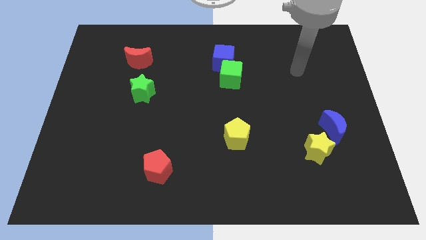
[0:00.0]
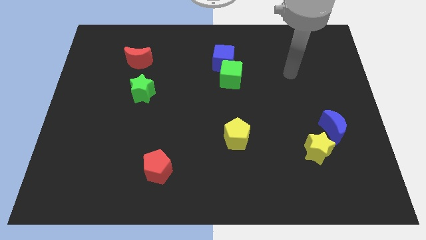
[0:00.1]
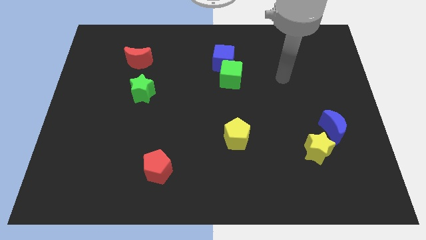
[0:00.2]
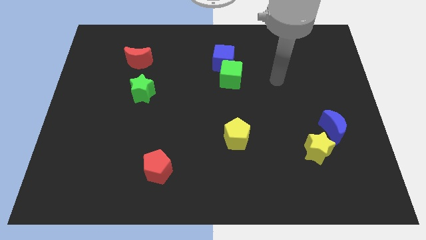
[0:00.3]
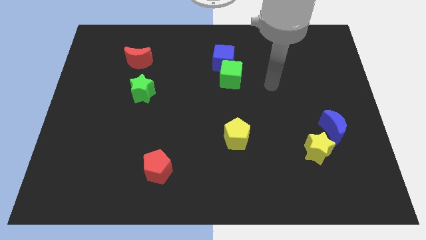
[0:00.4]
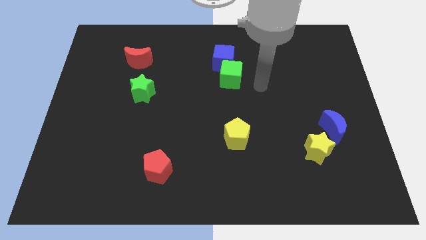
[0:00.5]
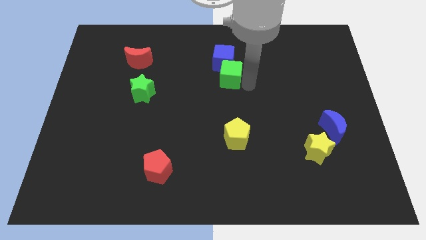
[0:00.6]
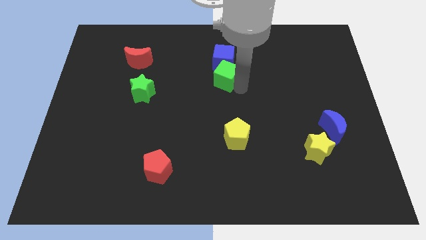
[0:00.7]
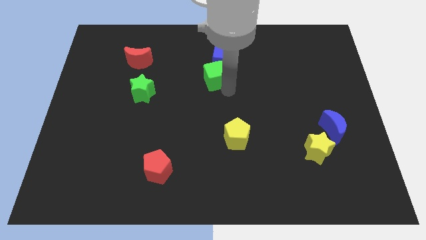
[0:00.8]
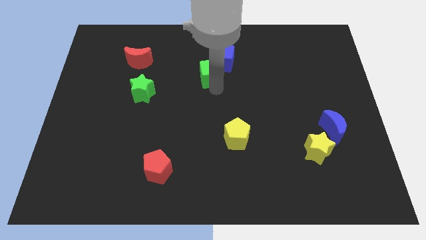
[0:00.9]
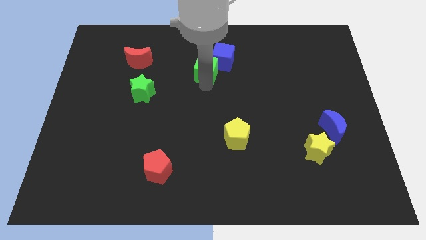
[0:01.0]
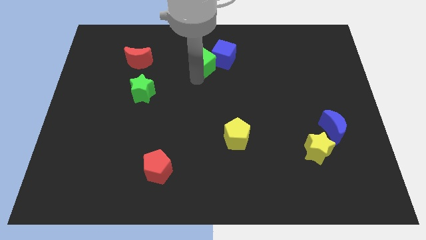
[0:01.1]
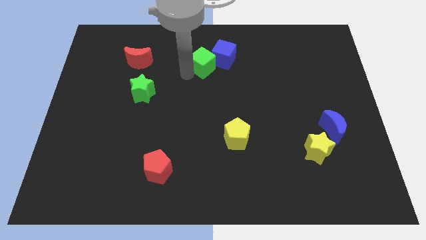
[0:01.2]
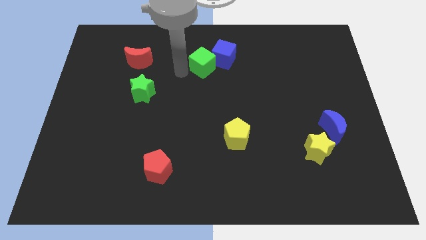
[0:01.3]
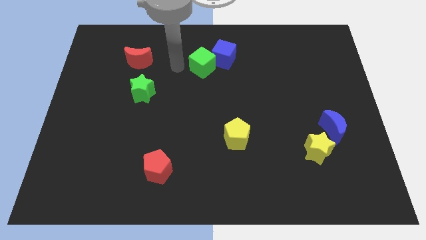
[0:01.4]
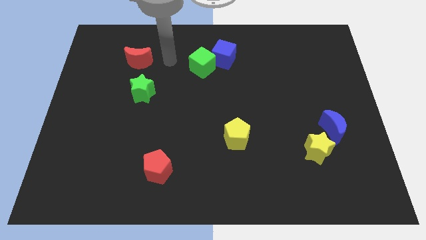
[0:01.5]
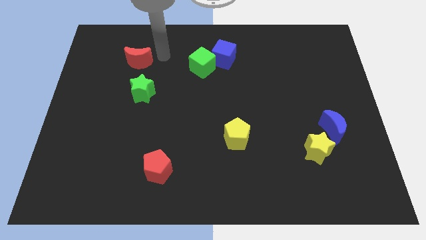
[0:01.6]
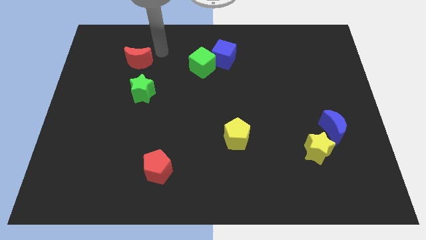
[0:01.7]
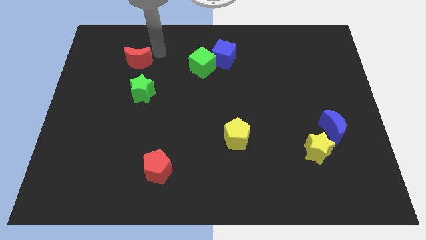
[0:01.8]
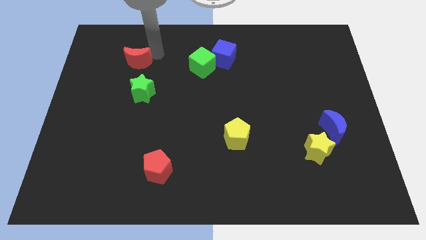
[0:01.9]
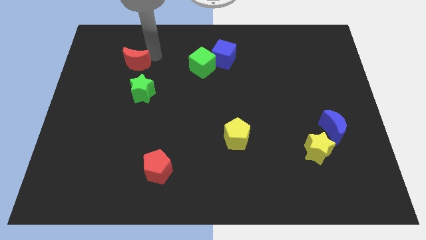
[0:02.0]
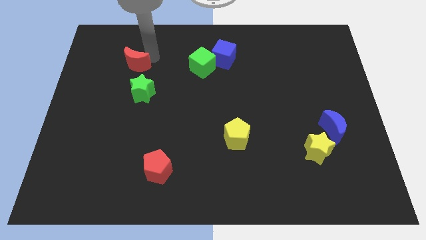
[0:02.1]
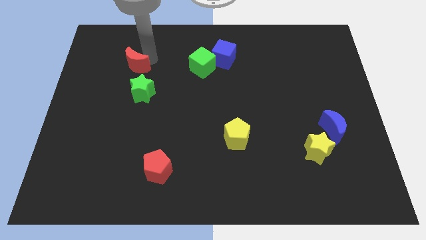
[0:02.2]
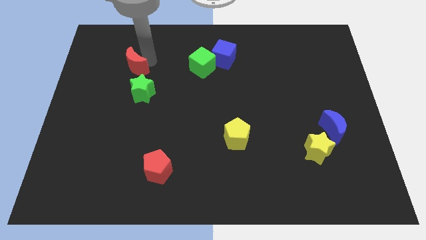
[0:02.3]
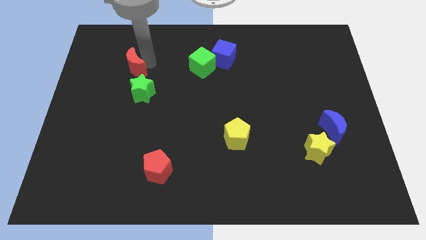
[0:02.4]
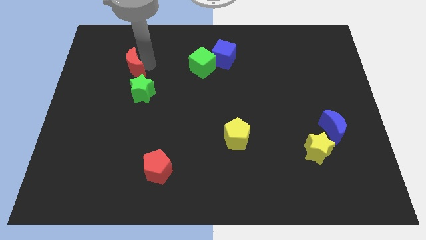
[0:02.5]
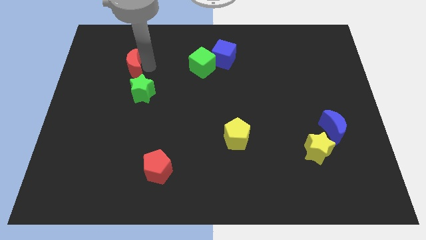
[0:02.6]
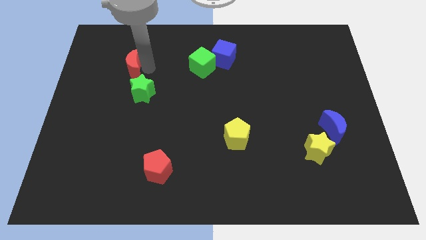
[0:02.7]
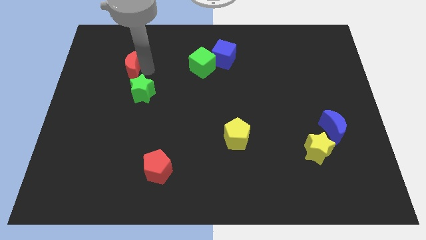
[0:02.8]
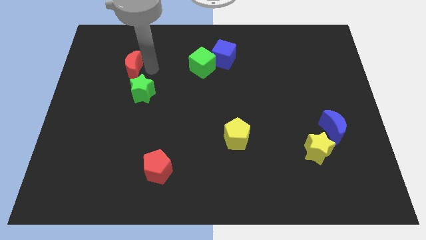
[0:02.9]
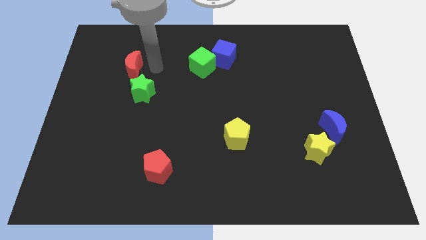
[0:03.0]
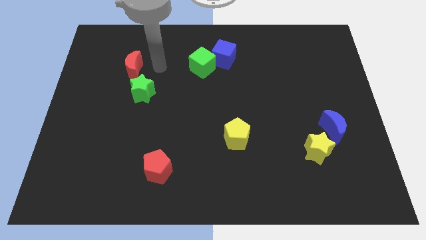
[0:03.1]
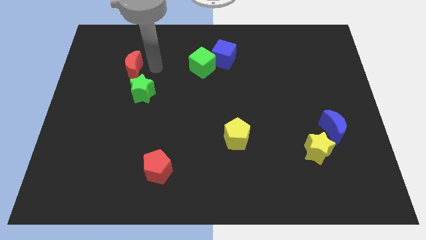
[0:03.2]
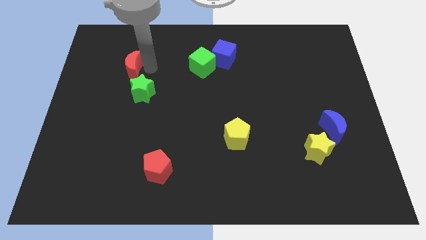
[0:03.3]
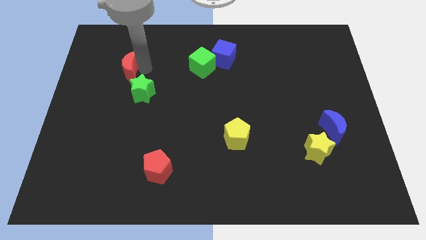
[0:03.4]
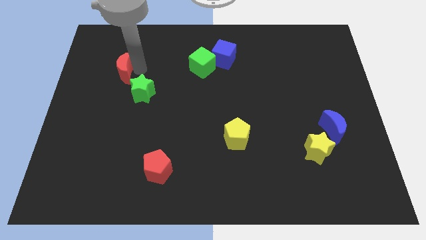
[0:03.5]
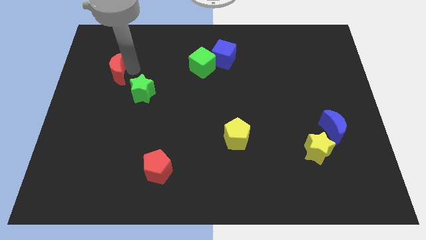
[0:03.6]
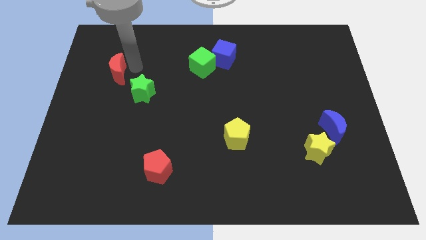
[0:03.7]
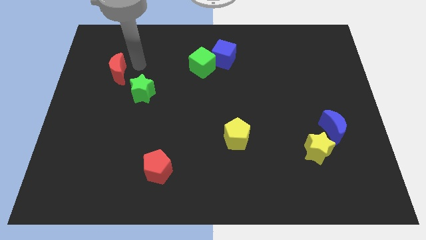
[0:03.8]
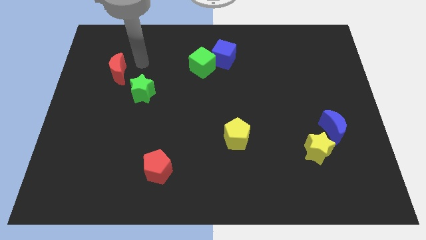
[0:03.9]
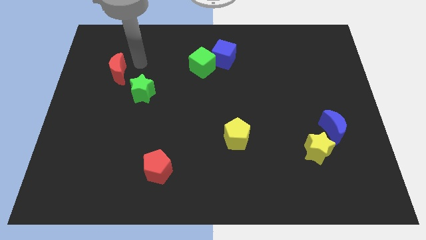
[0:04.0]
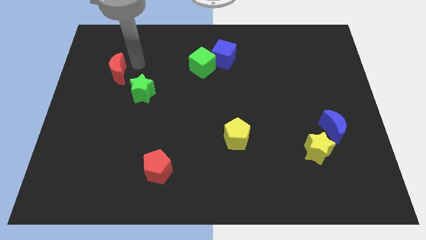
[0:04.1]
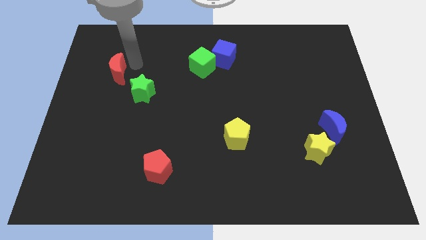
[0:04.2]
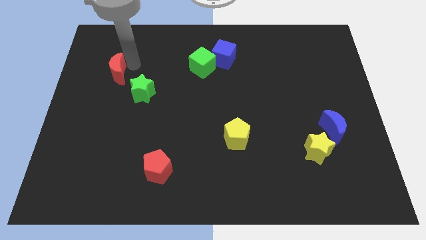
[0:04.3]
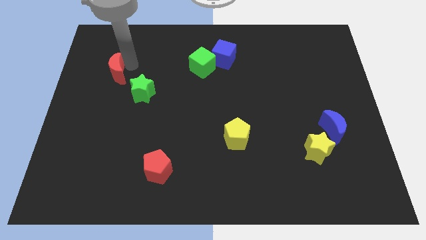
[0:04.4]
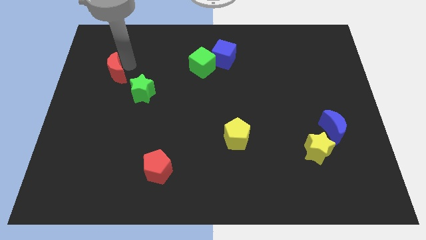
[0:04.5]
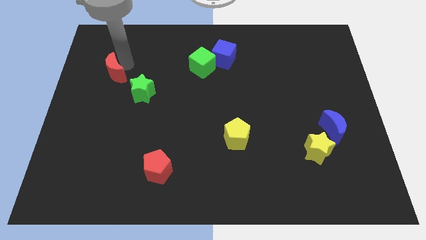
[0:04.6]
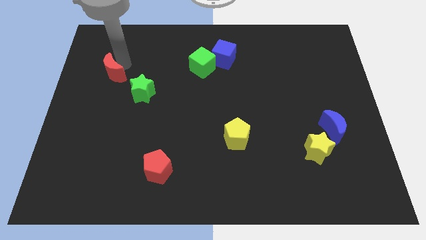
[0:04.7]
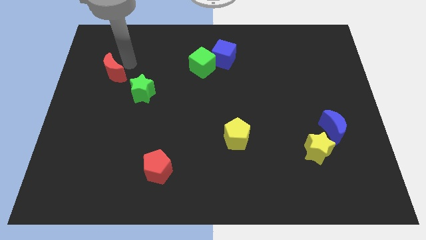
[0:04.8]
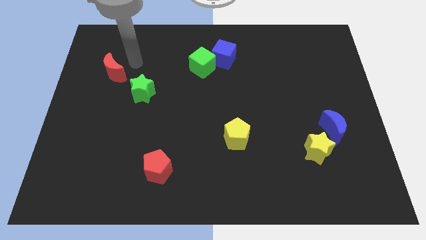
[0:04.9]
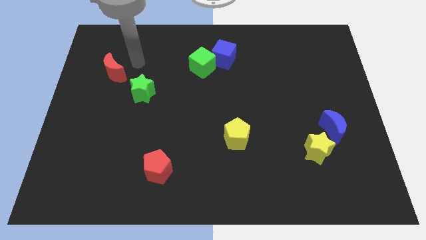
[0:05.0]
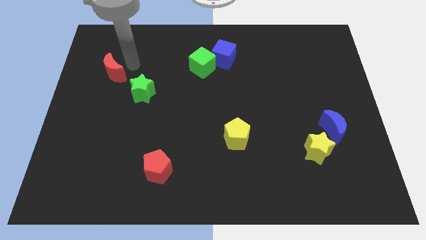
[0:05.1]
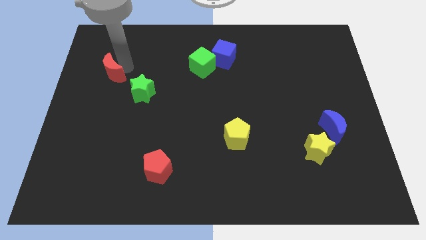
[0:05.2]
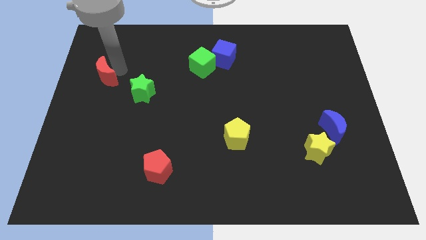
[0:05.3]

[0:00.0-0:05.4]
push the red moon to the center left

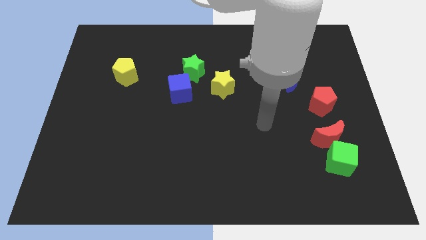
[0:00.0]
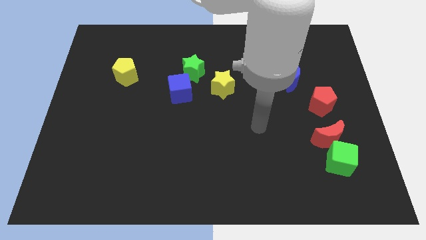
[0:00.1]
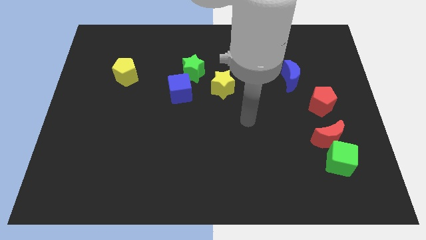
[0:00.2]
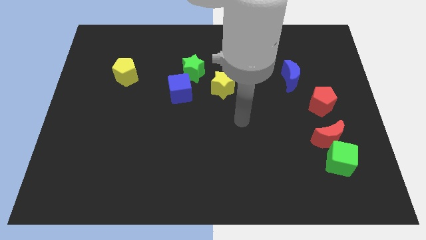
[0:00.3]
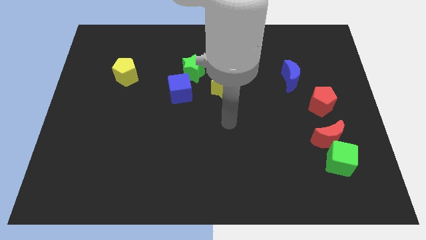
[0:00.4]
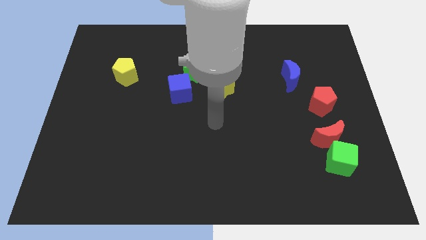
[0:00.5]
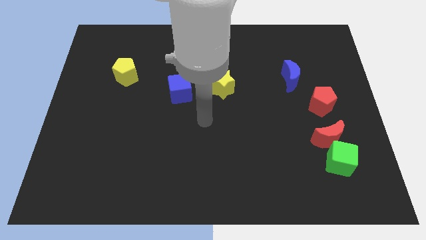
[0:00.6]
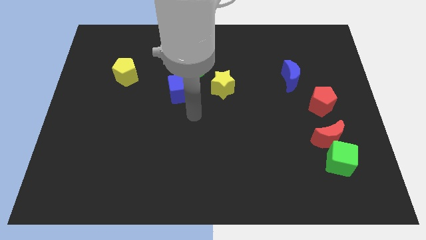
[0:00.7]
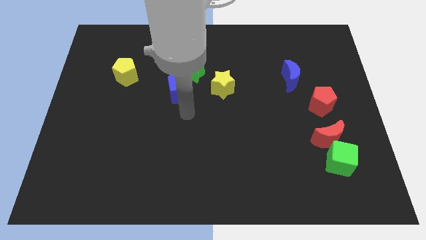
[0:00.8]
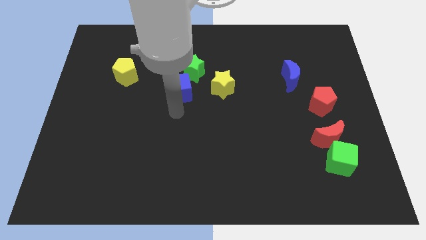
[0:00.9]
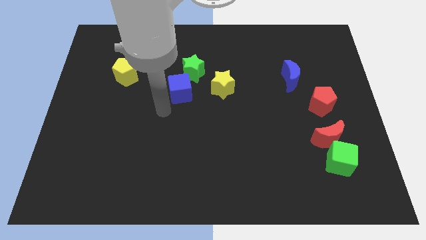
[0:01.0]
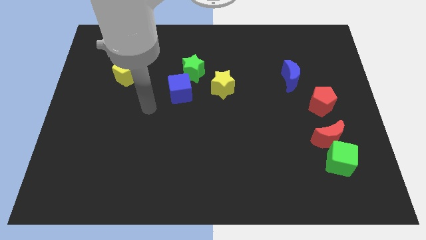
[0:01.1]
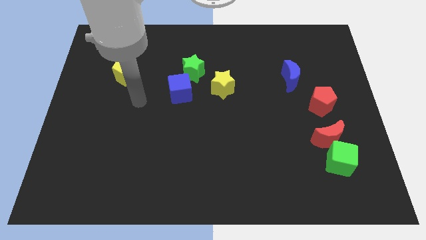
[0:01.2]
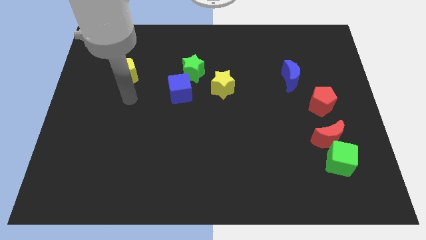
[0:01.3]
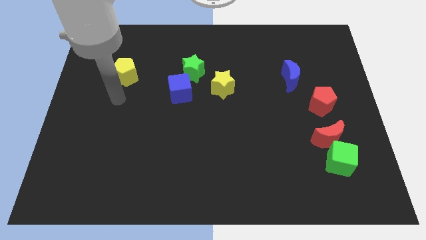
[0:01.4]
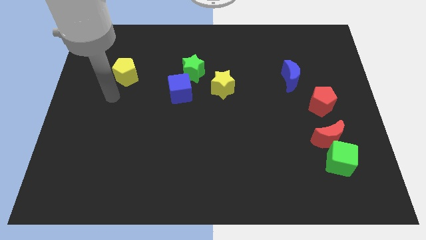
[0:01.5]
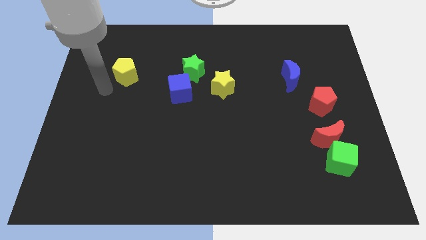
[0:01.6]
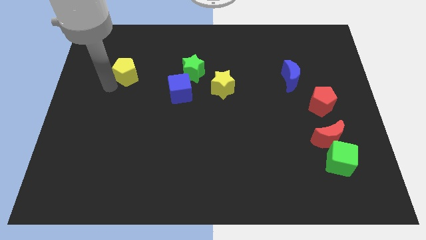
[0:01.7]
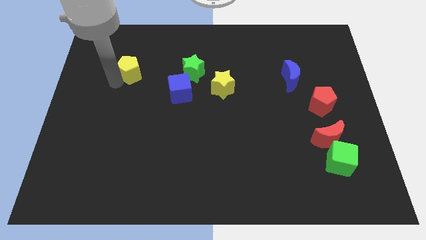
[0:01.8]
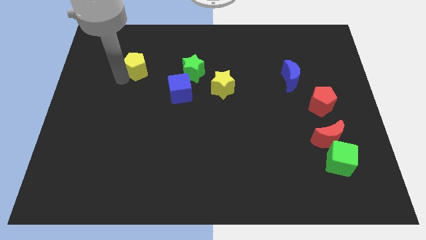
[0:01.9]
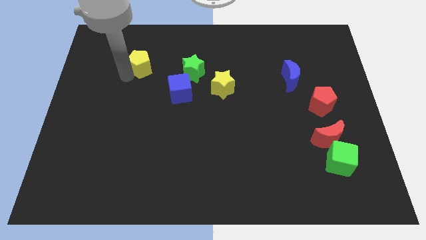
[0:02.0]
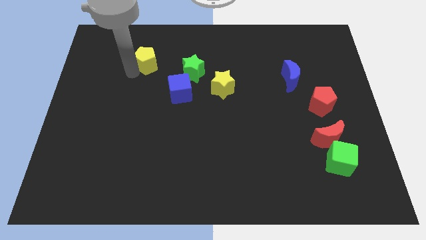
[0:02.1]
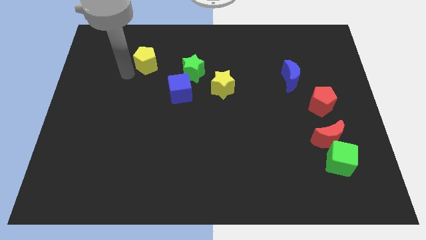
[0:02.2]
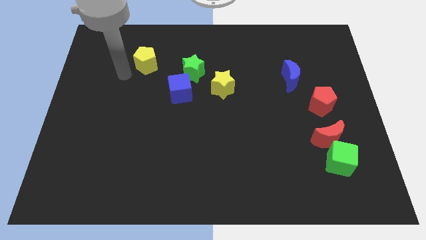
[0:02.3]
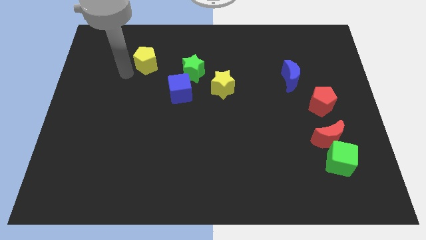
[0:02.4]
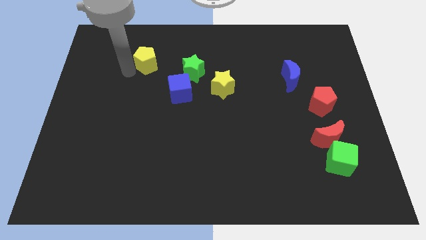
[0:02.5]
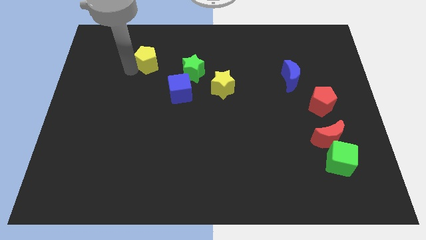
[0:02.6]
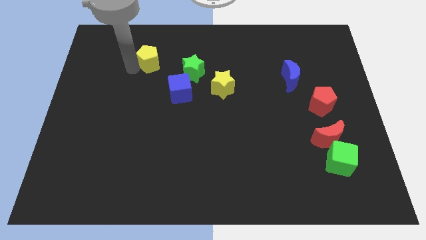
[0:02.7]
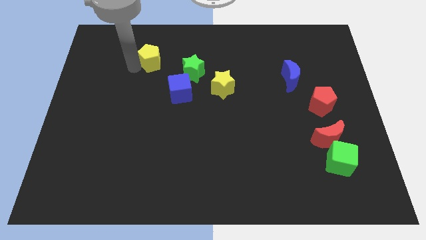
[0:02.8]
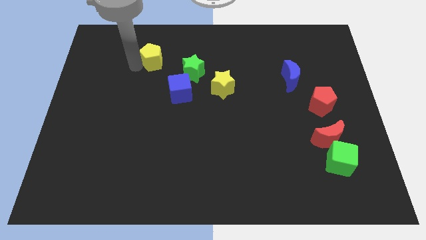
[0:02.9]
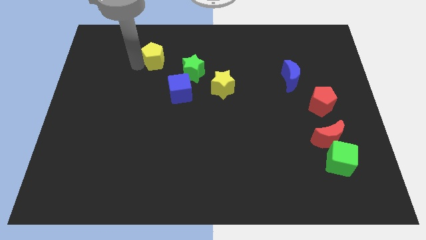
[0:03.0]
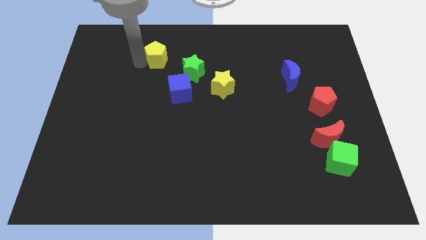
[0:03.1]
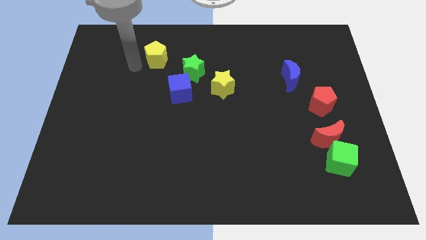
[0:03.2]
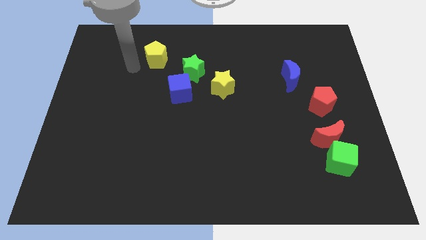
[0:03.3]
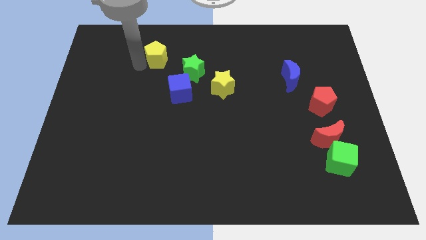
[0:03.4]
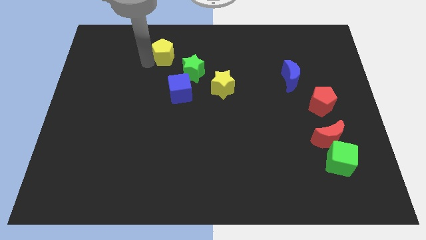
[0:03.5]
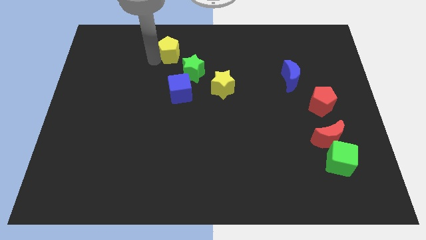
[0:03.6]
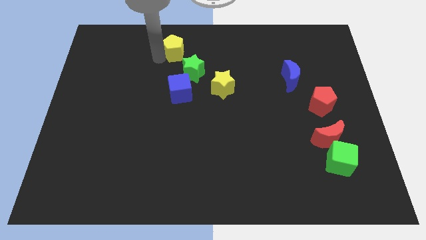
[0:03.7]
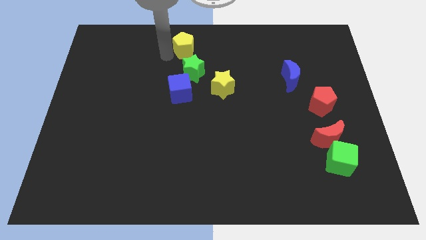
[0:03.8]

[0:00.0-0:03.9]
push the yellow pentagon to the top
